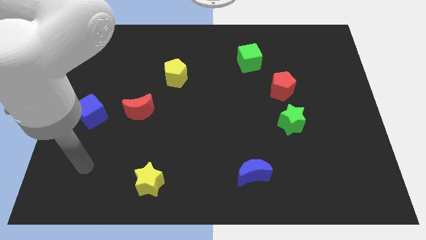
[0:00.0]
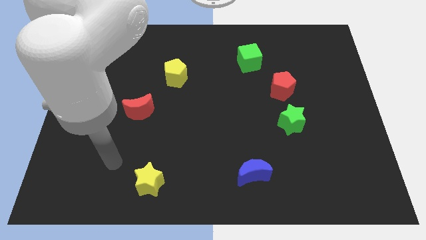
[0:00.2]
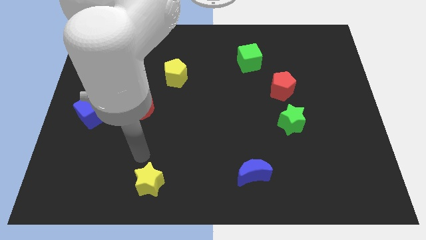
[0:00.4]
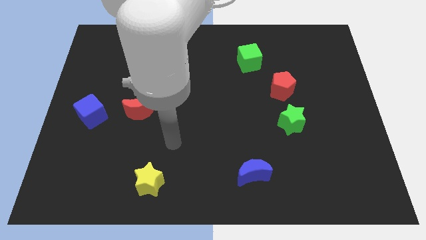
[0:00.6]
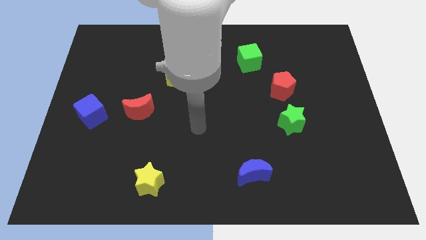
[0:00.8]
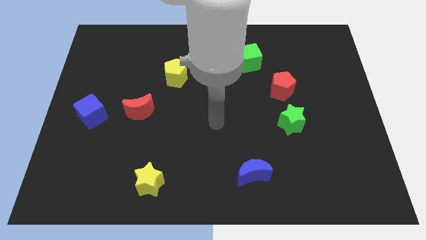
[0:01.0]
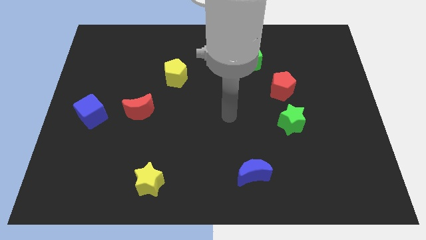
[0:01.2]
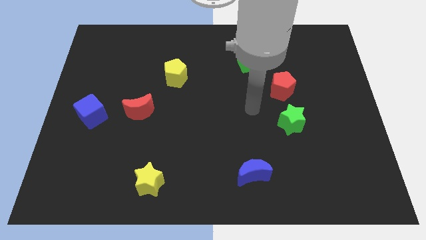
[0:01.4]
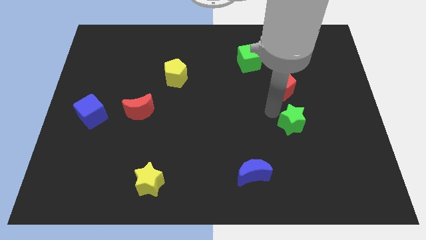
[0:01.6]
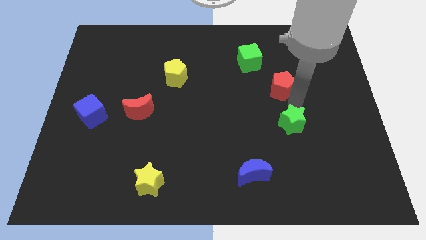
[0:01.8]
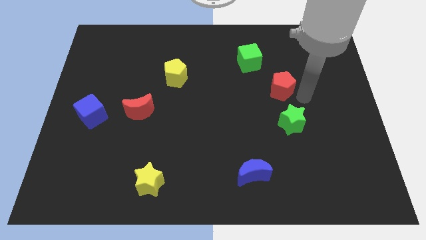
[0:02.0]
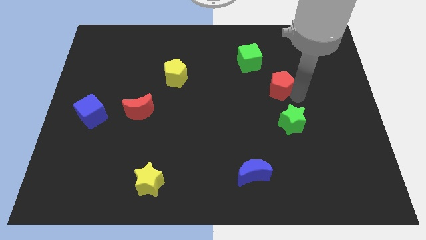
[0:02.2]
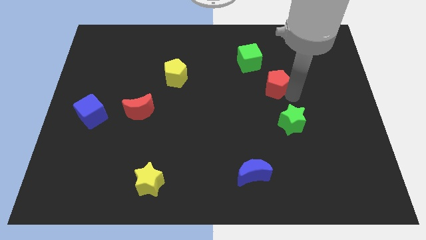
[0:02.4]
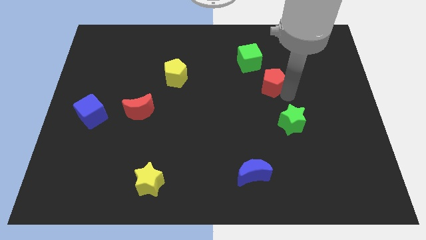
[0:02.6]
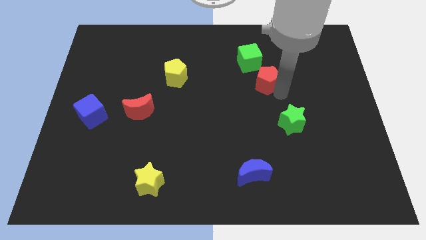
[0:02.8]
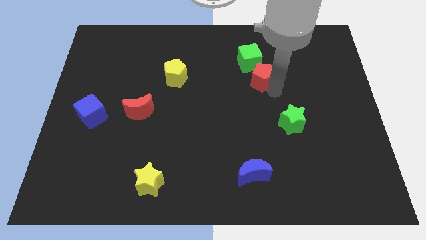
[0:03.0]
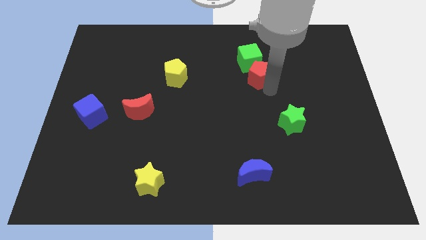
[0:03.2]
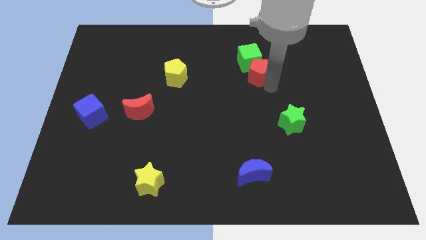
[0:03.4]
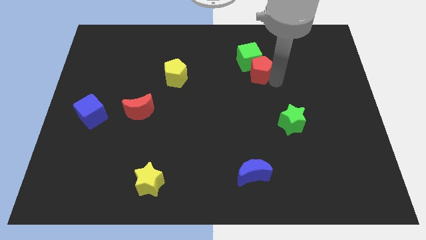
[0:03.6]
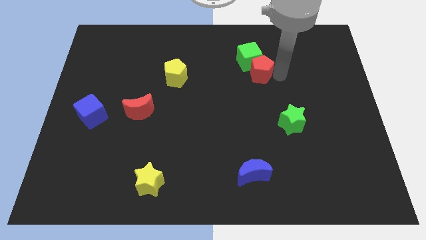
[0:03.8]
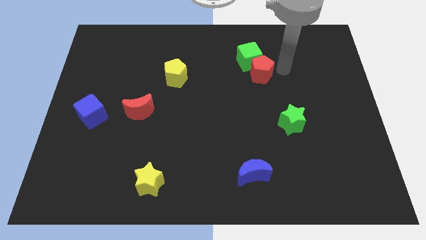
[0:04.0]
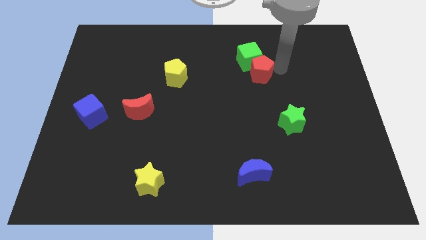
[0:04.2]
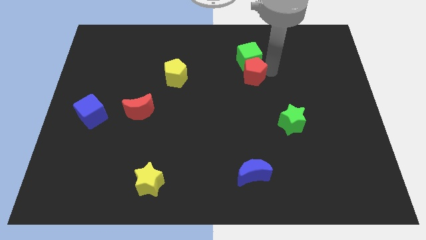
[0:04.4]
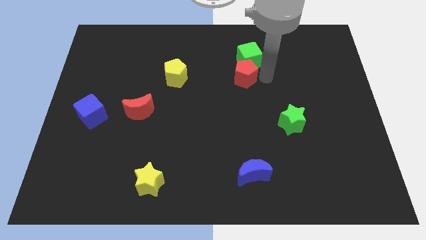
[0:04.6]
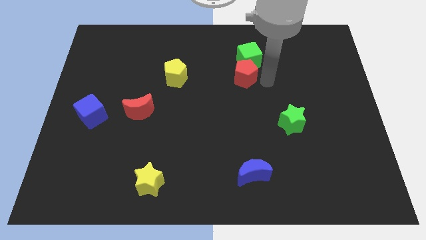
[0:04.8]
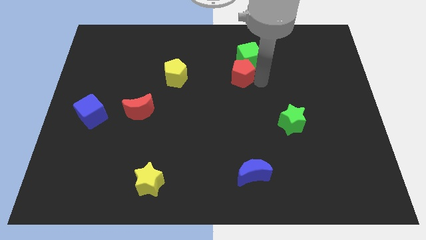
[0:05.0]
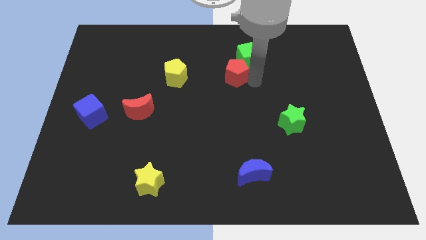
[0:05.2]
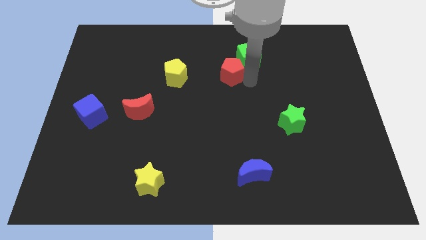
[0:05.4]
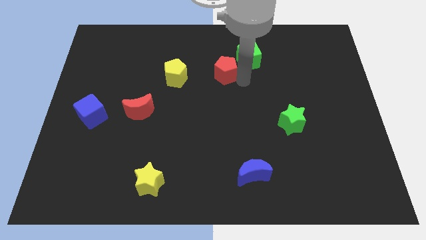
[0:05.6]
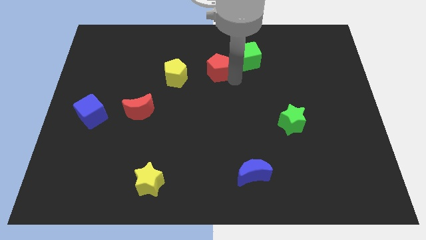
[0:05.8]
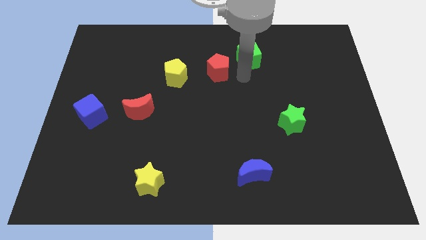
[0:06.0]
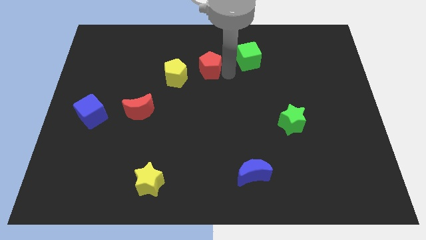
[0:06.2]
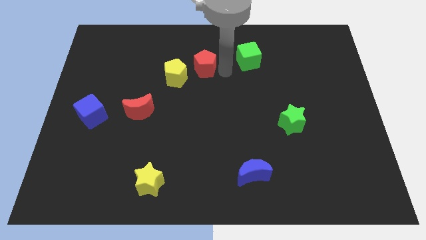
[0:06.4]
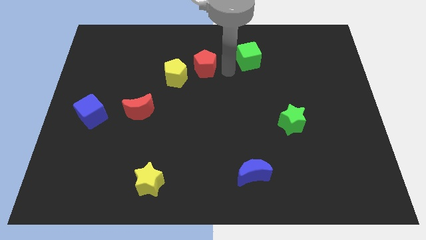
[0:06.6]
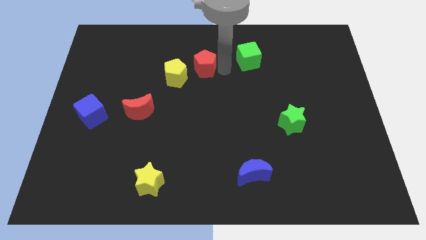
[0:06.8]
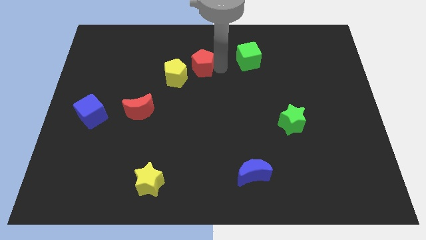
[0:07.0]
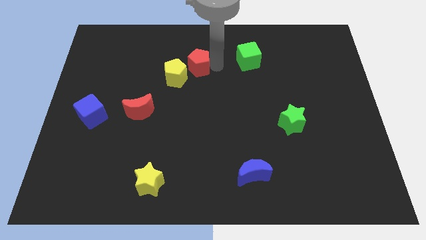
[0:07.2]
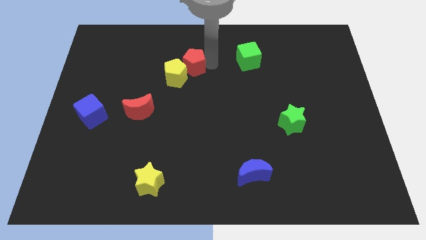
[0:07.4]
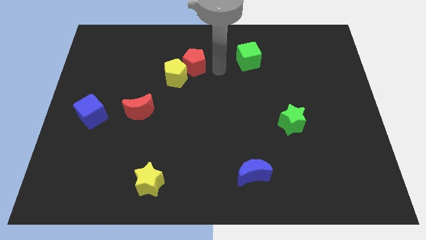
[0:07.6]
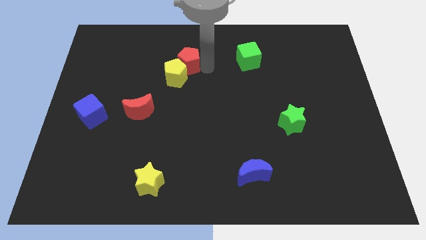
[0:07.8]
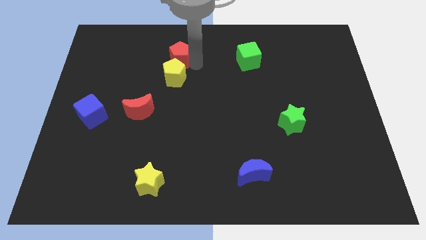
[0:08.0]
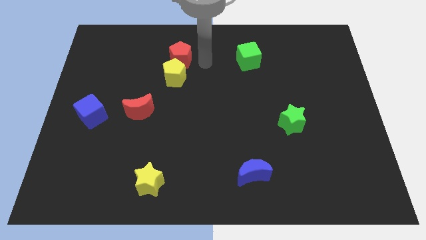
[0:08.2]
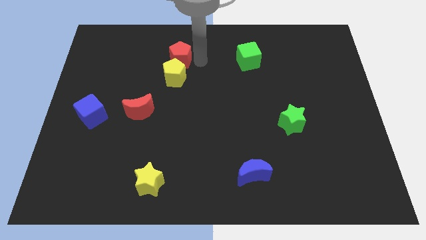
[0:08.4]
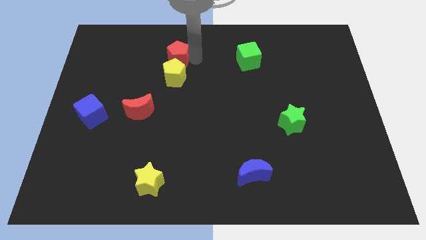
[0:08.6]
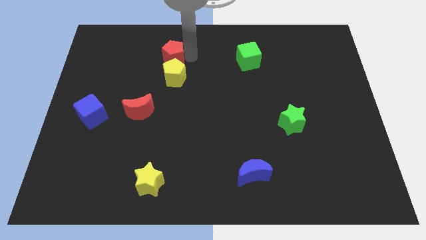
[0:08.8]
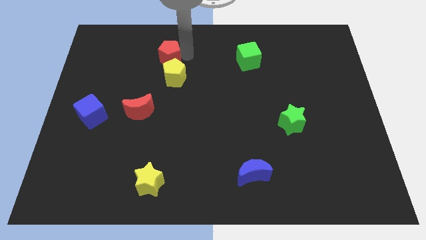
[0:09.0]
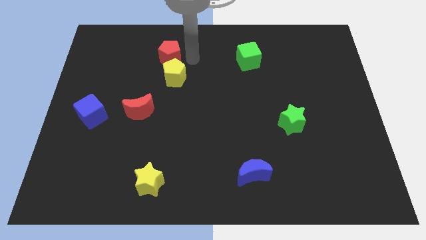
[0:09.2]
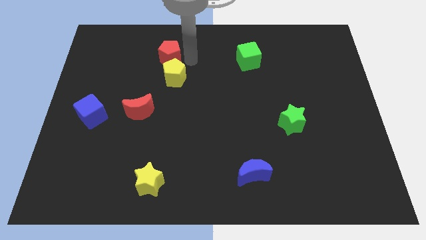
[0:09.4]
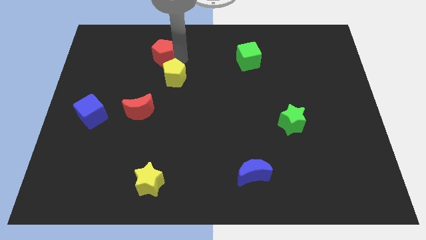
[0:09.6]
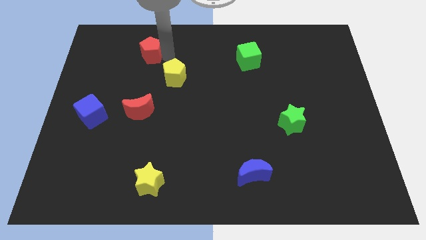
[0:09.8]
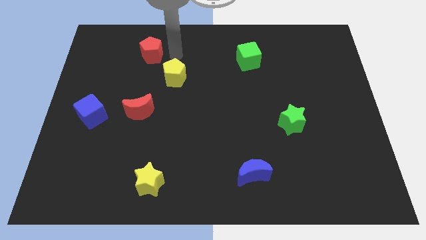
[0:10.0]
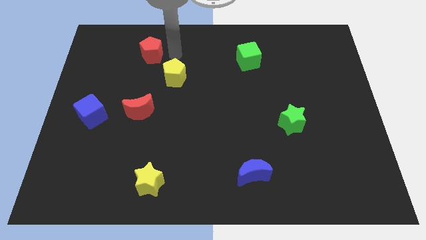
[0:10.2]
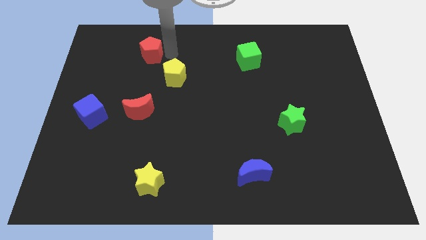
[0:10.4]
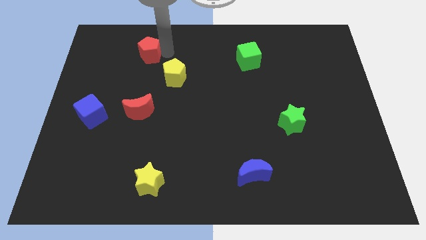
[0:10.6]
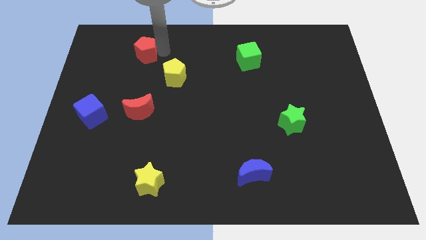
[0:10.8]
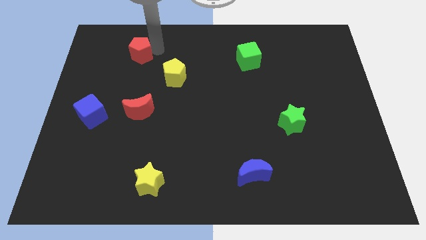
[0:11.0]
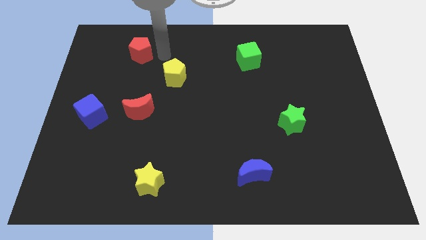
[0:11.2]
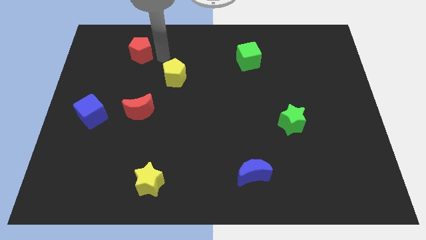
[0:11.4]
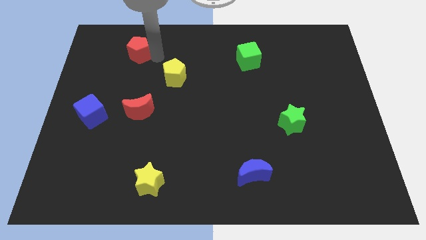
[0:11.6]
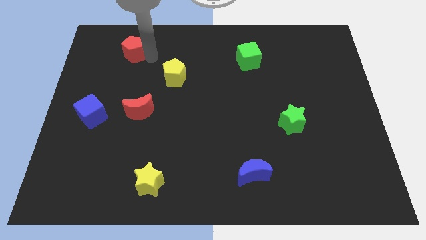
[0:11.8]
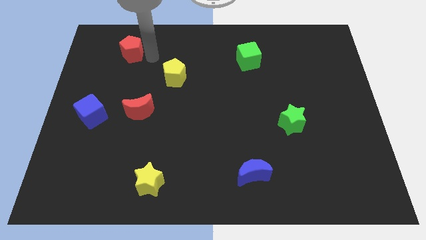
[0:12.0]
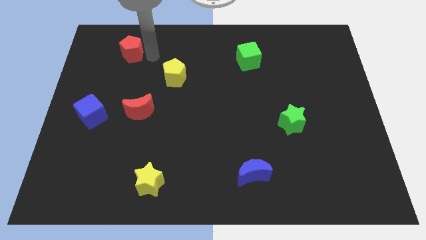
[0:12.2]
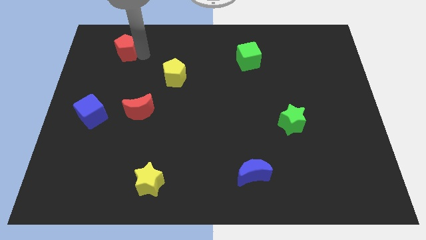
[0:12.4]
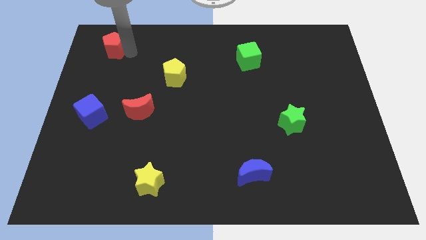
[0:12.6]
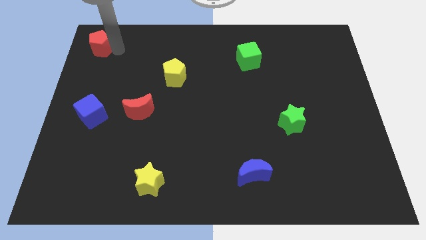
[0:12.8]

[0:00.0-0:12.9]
put the red pentagon to the upper left corner
